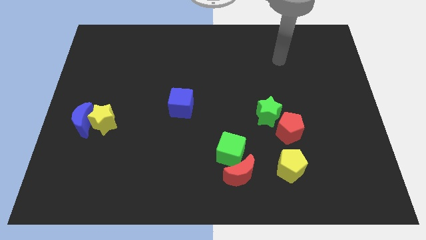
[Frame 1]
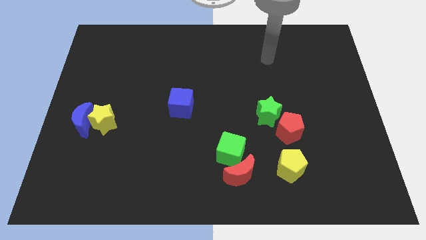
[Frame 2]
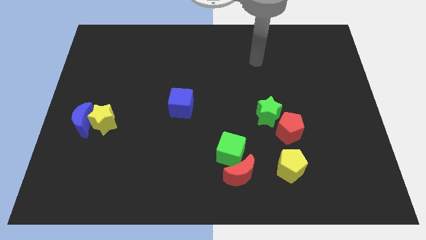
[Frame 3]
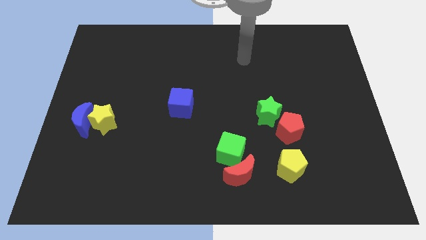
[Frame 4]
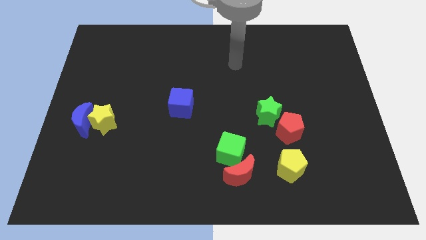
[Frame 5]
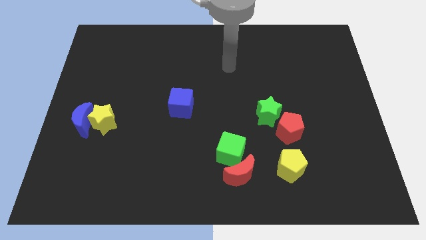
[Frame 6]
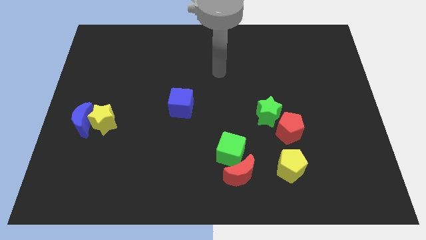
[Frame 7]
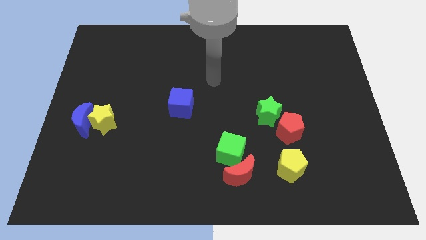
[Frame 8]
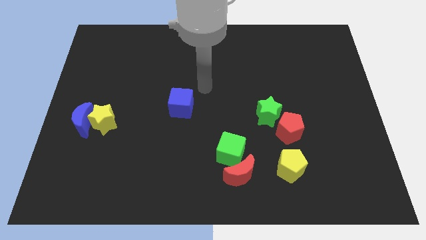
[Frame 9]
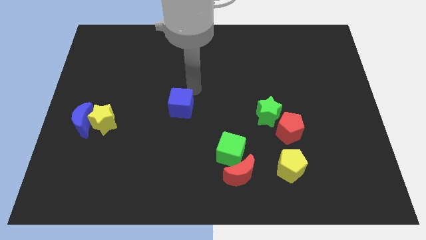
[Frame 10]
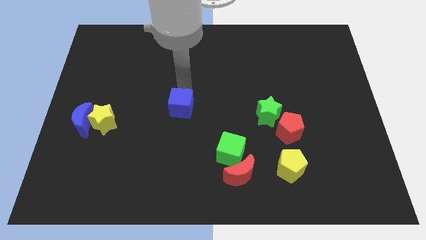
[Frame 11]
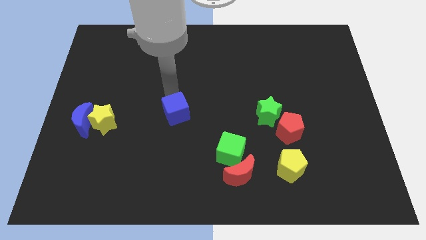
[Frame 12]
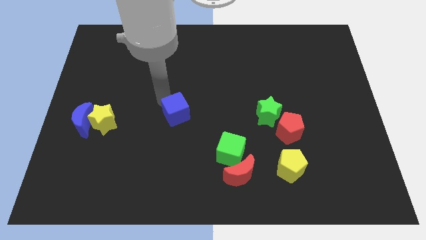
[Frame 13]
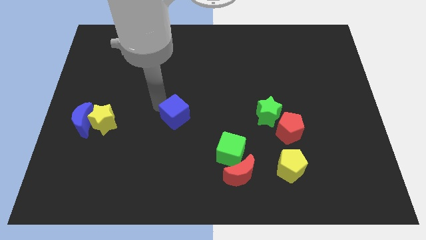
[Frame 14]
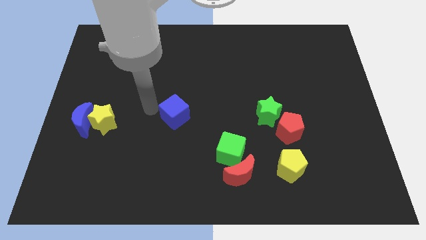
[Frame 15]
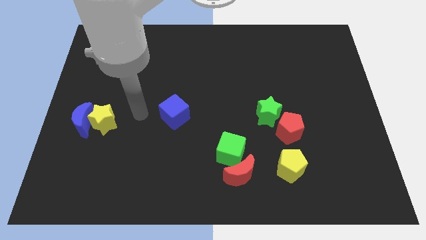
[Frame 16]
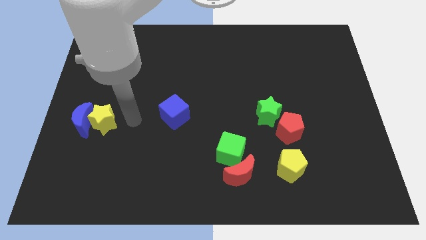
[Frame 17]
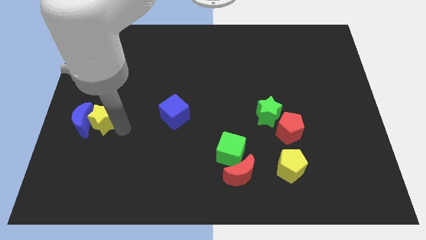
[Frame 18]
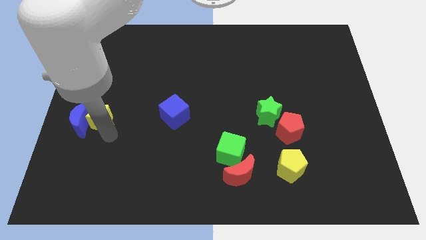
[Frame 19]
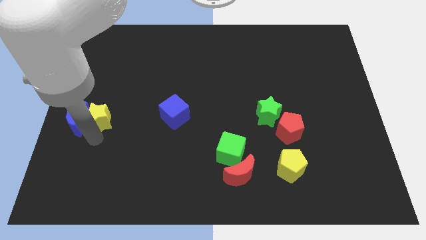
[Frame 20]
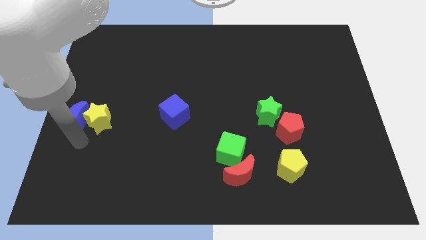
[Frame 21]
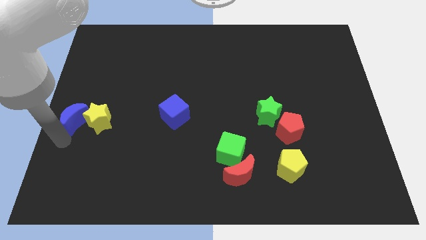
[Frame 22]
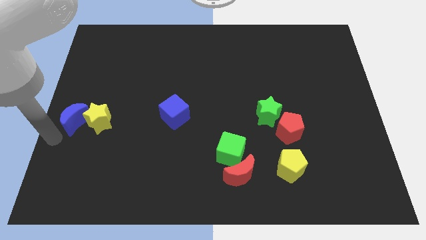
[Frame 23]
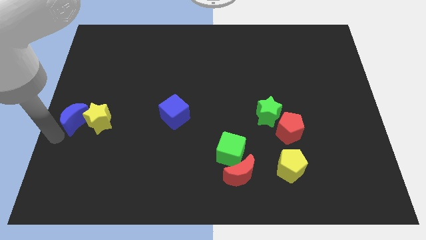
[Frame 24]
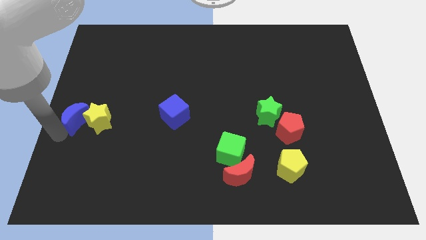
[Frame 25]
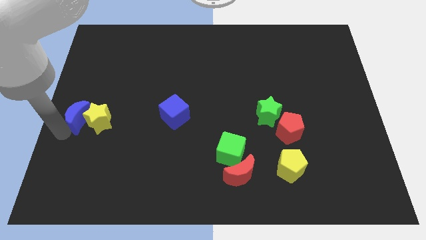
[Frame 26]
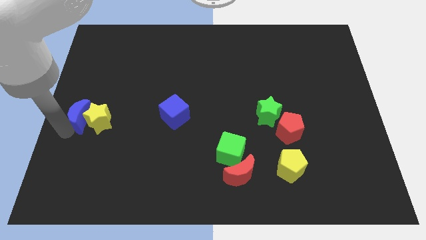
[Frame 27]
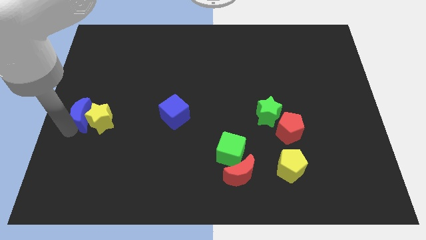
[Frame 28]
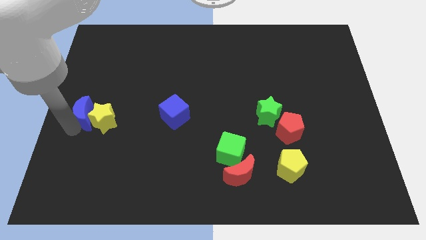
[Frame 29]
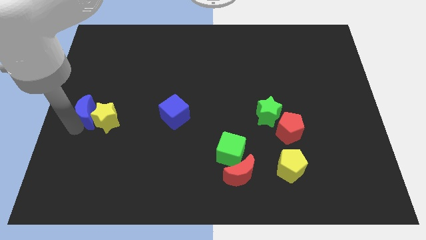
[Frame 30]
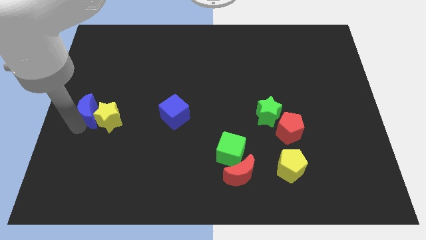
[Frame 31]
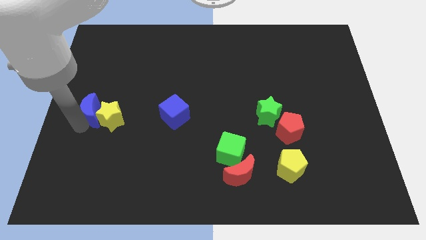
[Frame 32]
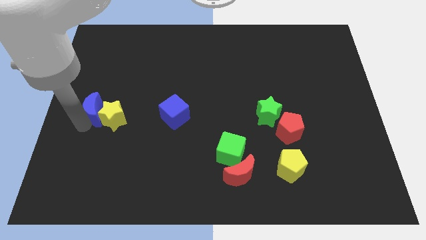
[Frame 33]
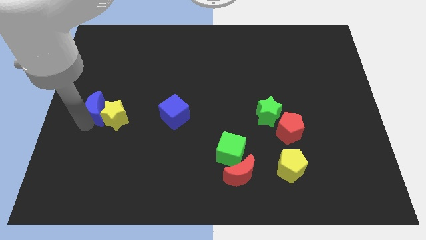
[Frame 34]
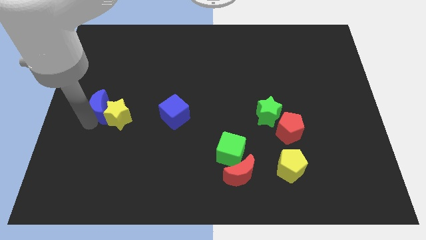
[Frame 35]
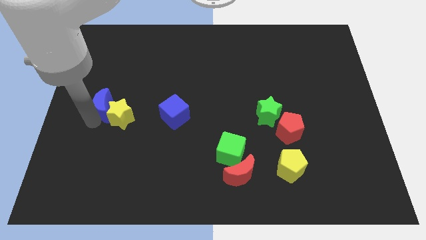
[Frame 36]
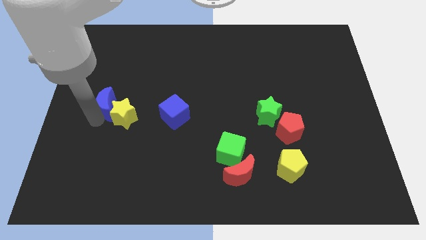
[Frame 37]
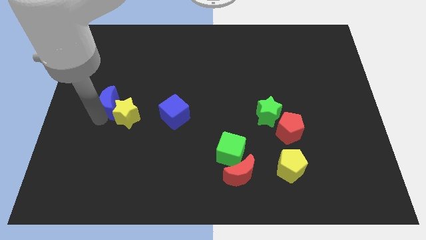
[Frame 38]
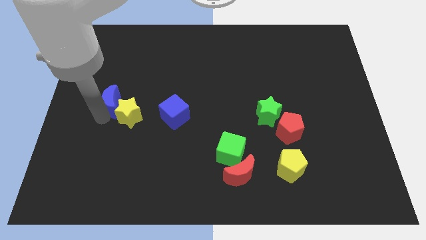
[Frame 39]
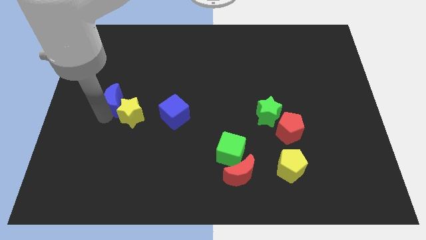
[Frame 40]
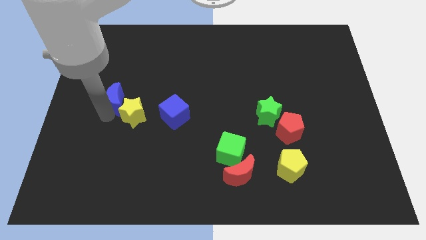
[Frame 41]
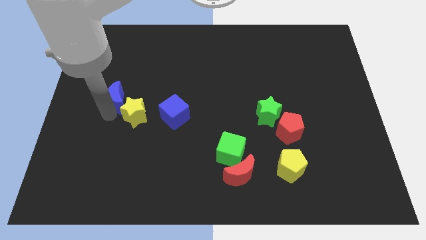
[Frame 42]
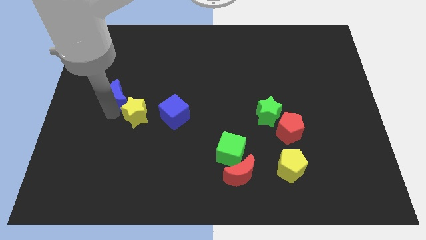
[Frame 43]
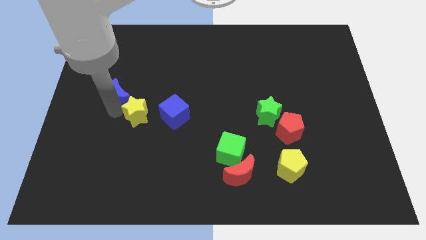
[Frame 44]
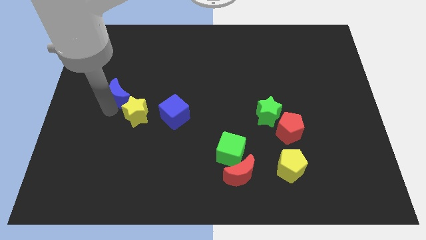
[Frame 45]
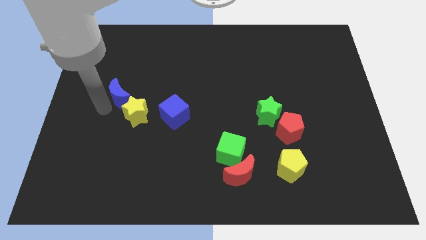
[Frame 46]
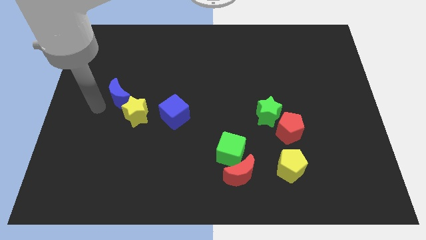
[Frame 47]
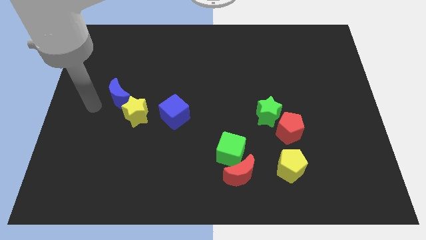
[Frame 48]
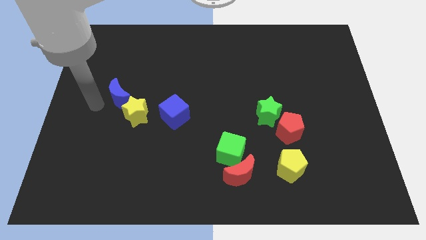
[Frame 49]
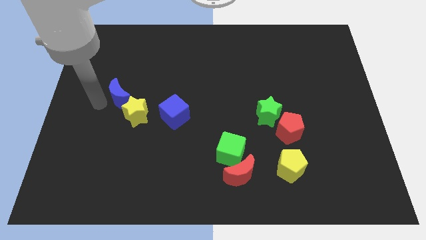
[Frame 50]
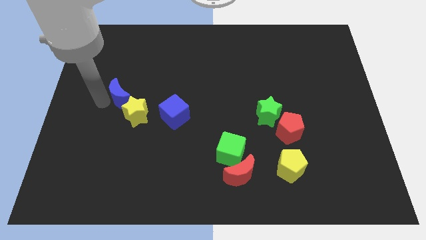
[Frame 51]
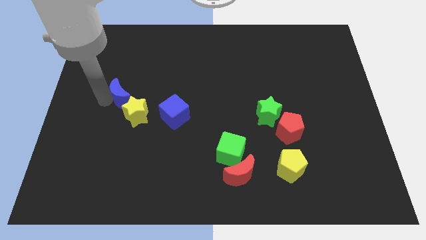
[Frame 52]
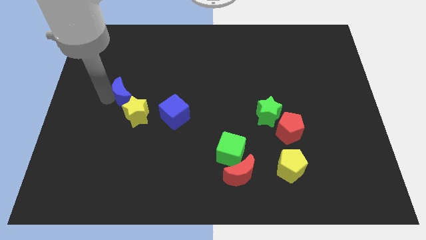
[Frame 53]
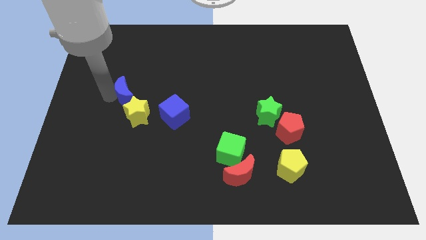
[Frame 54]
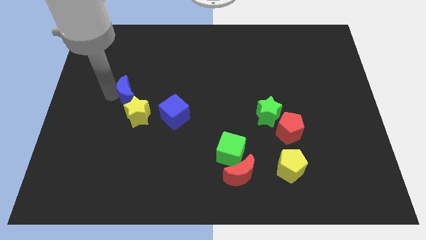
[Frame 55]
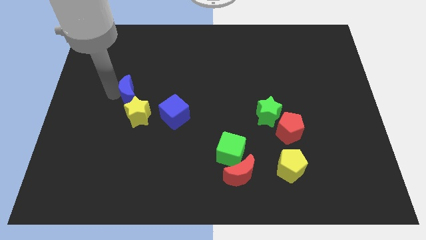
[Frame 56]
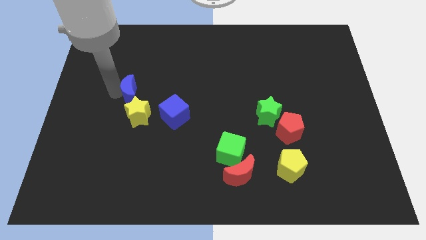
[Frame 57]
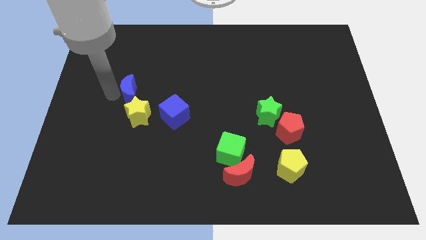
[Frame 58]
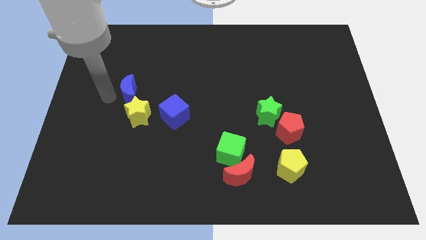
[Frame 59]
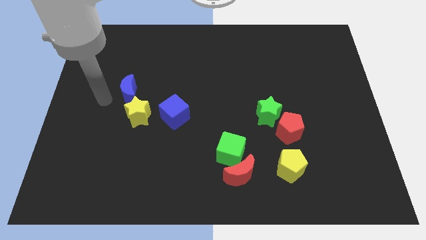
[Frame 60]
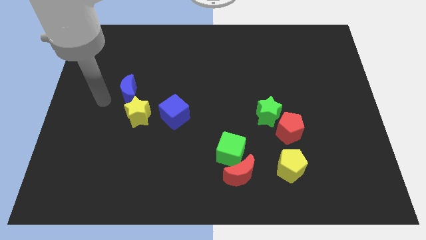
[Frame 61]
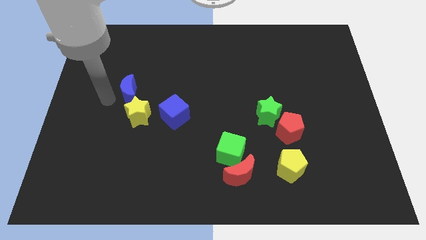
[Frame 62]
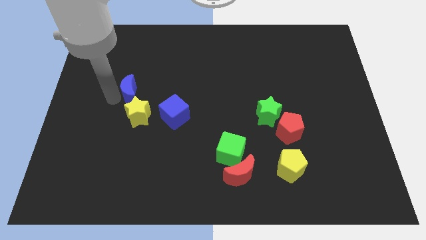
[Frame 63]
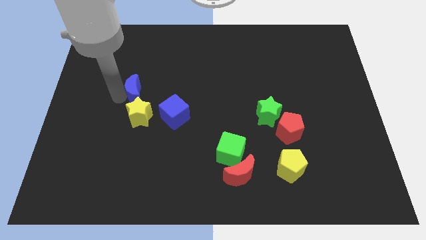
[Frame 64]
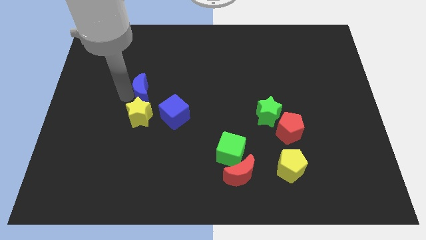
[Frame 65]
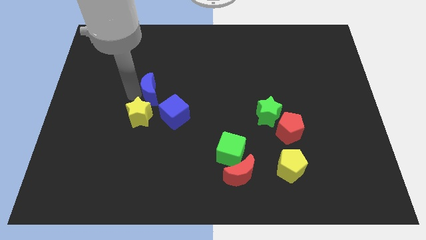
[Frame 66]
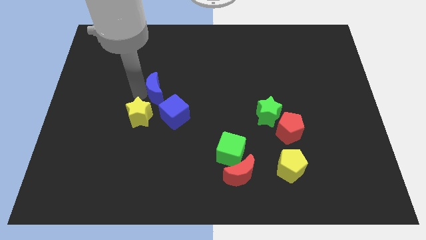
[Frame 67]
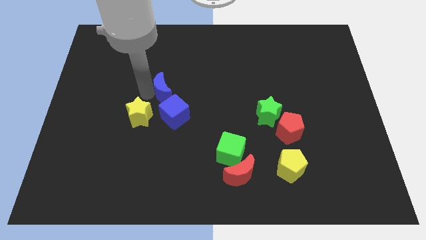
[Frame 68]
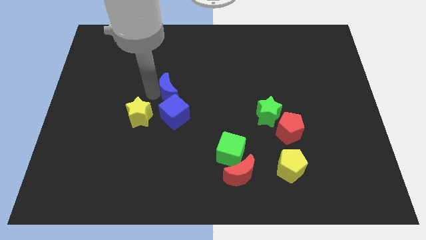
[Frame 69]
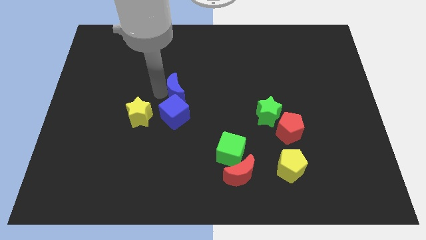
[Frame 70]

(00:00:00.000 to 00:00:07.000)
push the blue moon to the top right side of the blue cube

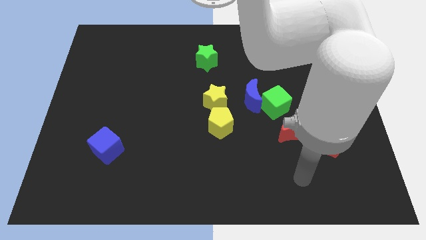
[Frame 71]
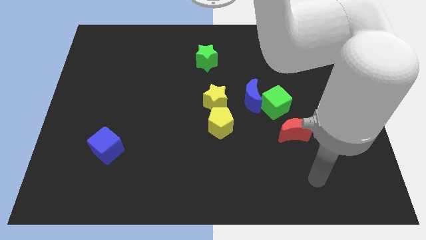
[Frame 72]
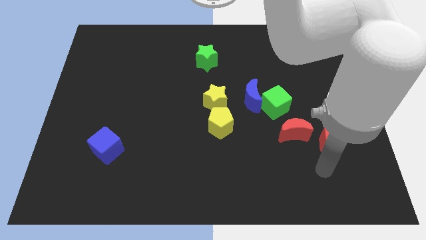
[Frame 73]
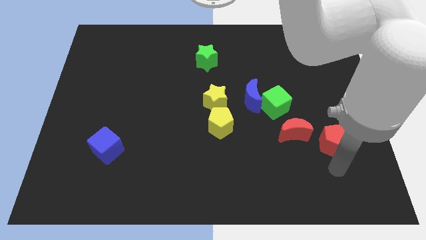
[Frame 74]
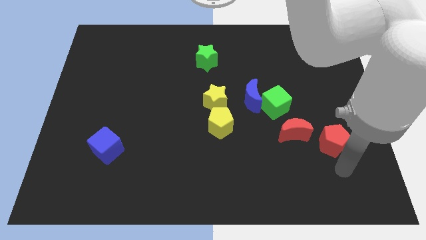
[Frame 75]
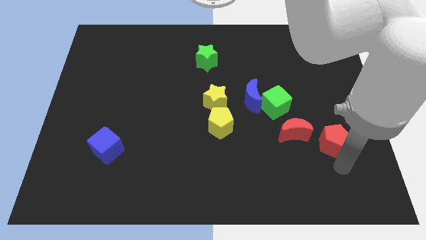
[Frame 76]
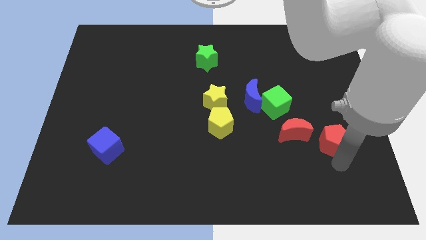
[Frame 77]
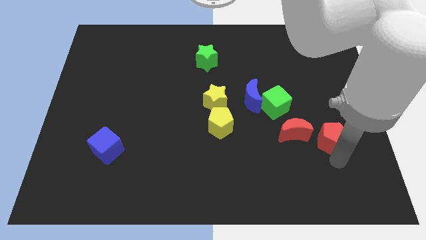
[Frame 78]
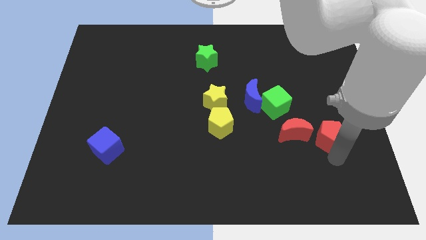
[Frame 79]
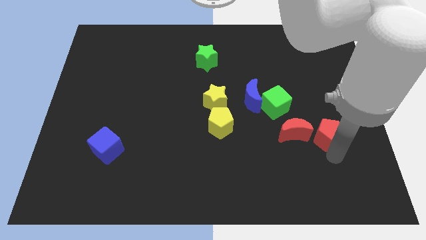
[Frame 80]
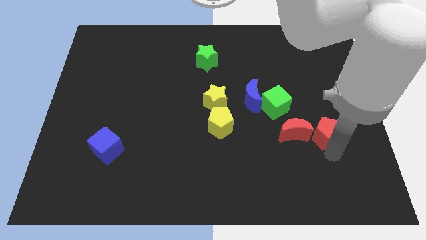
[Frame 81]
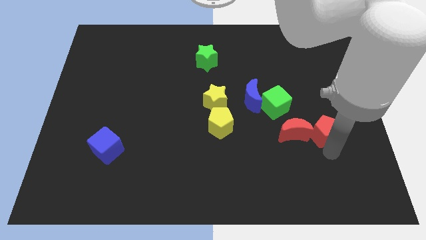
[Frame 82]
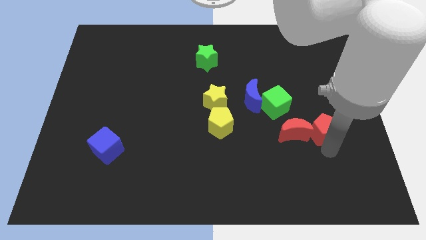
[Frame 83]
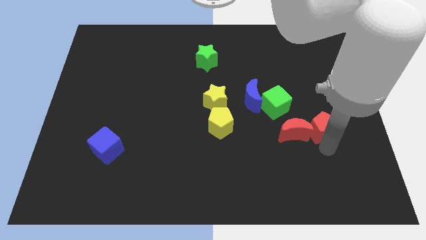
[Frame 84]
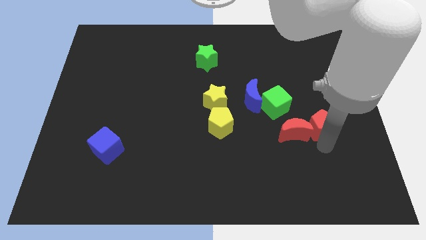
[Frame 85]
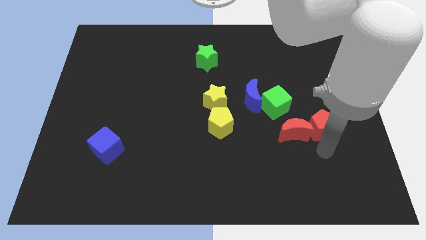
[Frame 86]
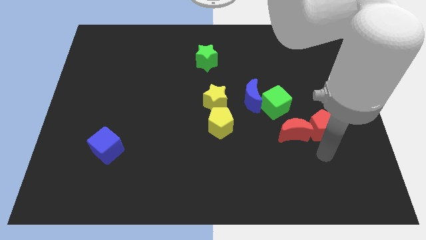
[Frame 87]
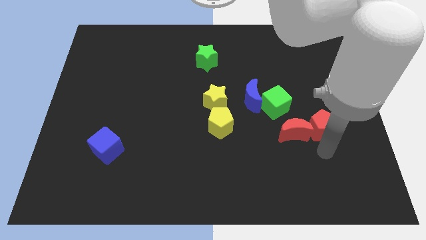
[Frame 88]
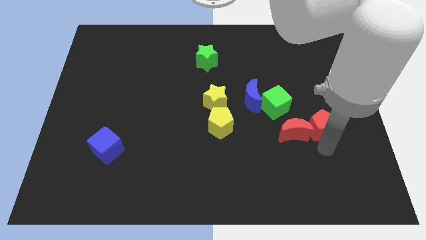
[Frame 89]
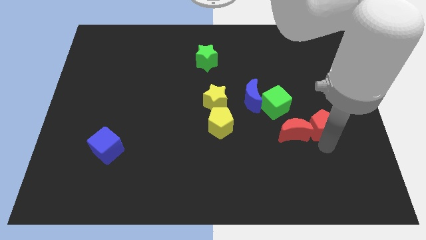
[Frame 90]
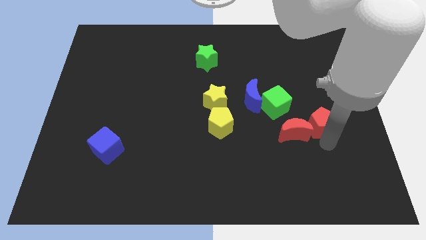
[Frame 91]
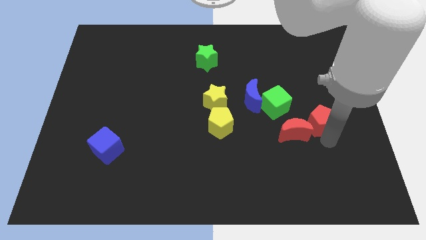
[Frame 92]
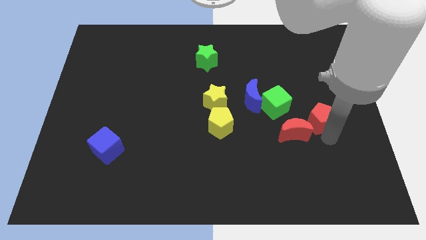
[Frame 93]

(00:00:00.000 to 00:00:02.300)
push the red pentagon just right of the green cube
